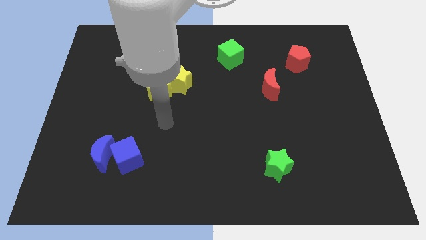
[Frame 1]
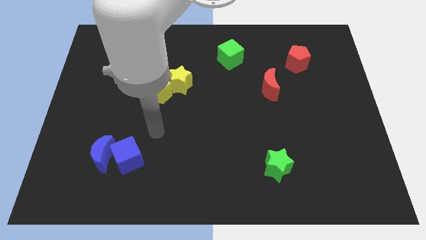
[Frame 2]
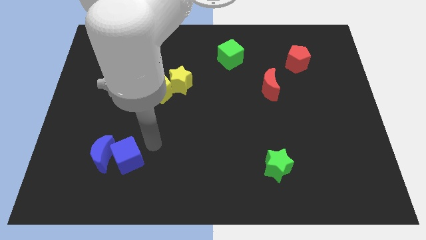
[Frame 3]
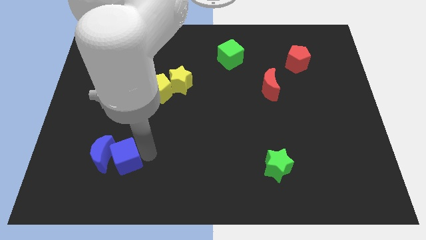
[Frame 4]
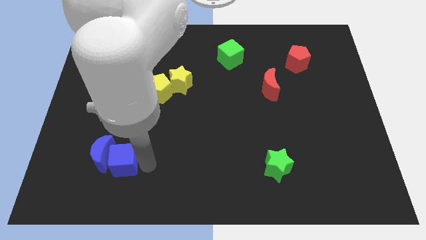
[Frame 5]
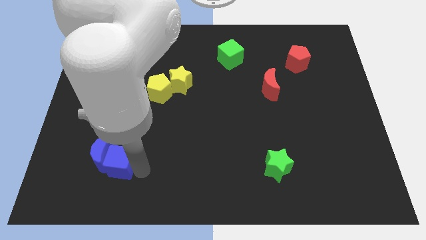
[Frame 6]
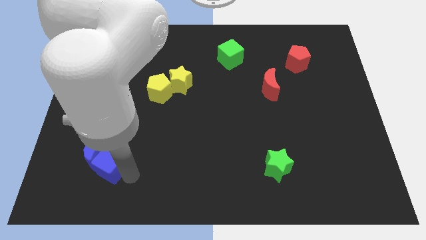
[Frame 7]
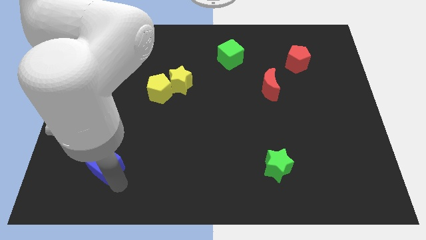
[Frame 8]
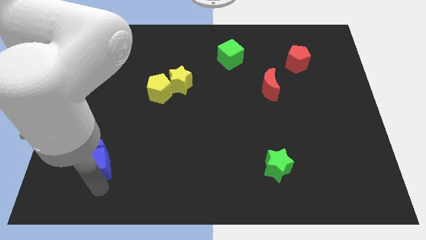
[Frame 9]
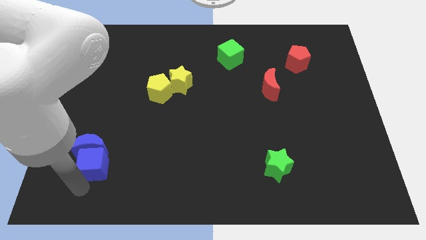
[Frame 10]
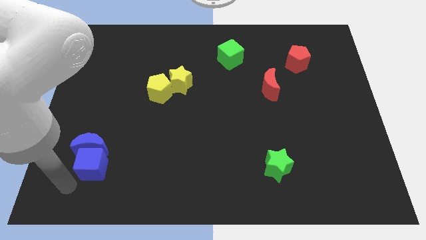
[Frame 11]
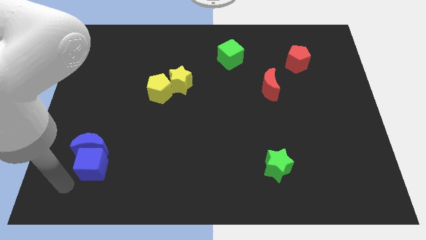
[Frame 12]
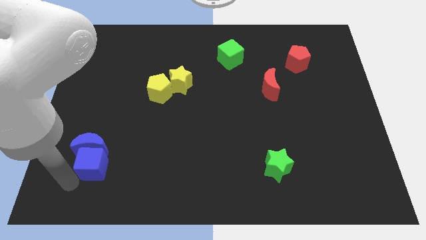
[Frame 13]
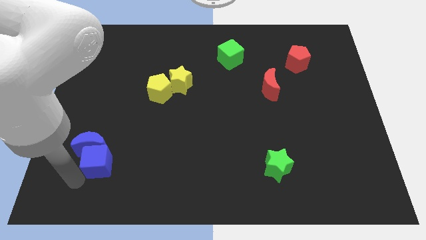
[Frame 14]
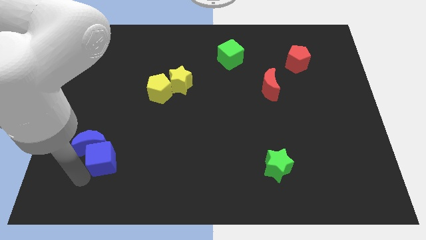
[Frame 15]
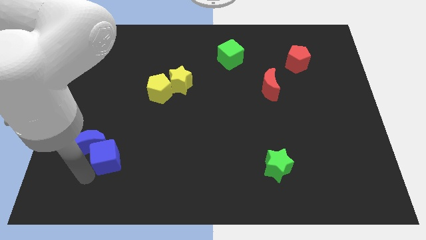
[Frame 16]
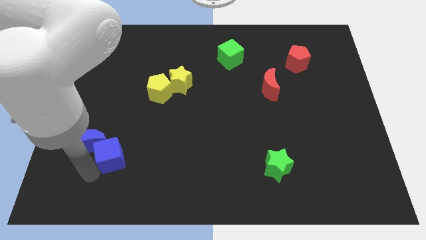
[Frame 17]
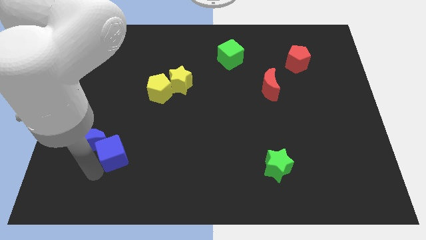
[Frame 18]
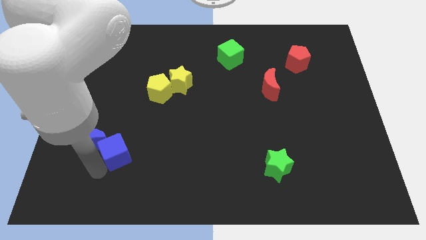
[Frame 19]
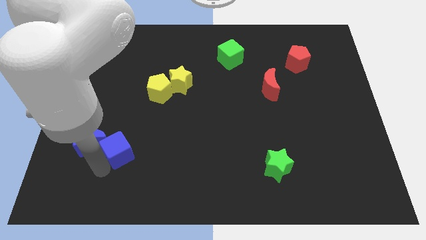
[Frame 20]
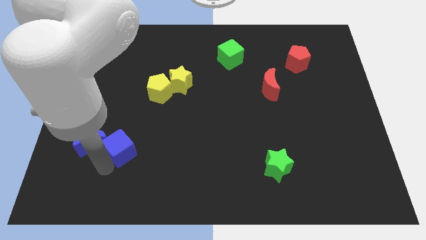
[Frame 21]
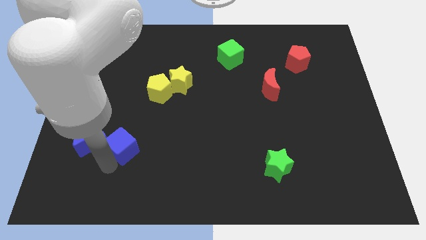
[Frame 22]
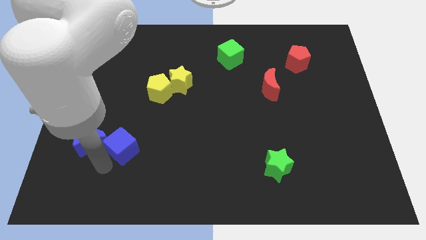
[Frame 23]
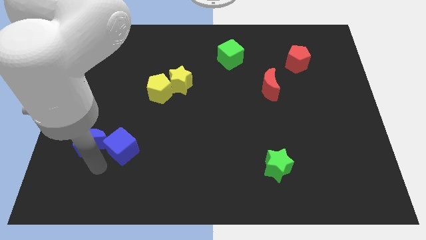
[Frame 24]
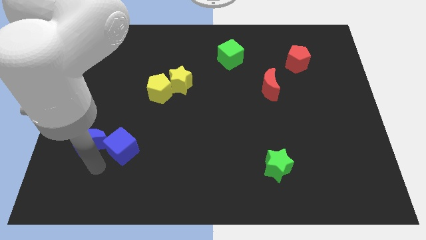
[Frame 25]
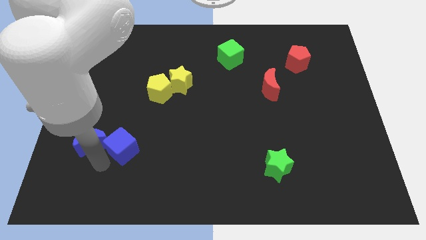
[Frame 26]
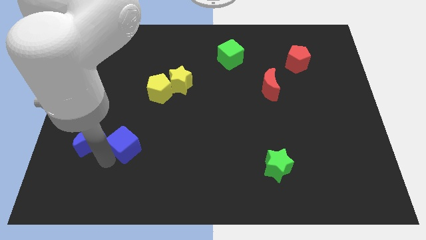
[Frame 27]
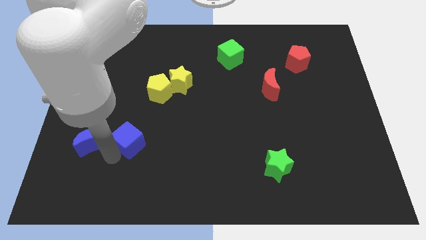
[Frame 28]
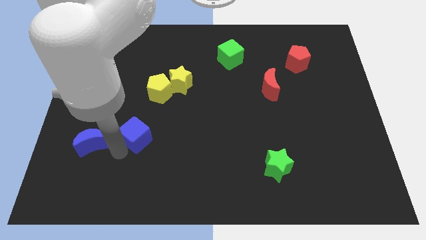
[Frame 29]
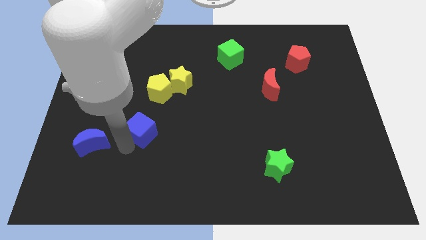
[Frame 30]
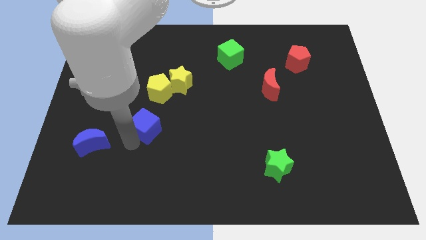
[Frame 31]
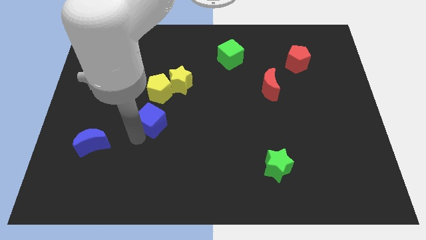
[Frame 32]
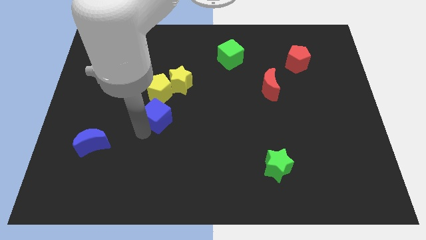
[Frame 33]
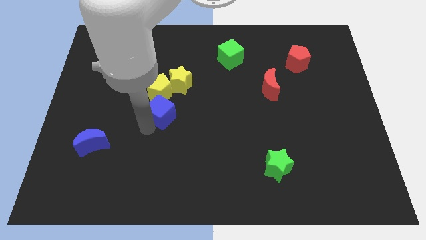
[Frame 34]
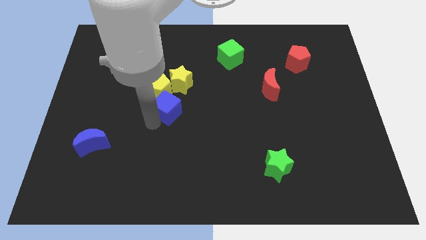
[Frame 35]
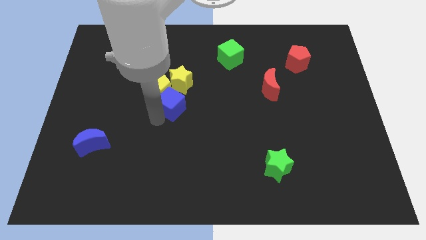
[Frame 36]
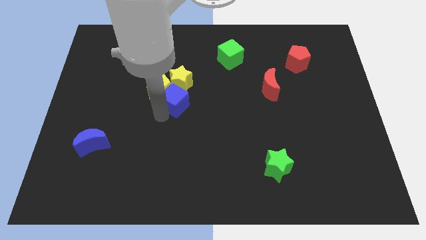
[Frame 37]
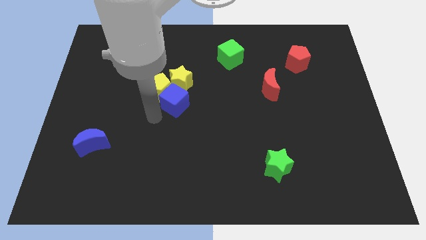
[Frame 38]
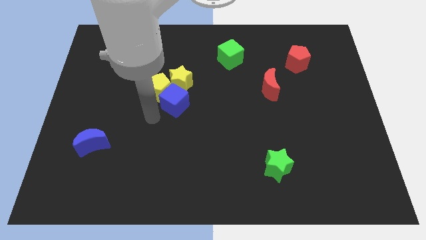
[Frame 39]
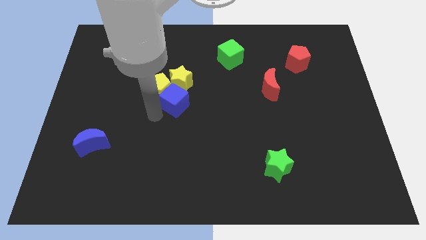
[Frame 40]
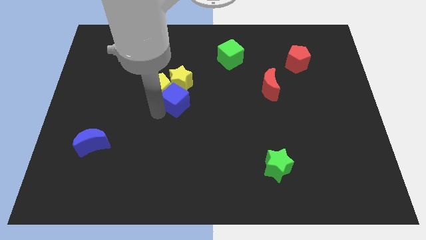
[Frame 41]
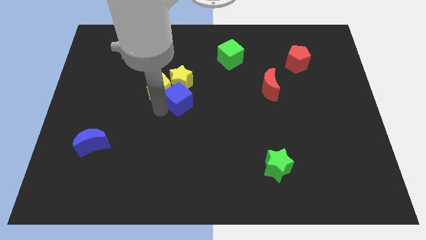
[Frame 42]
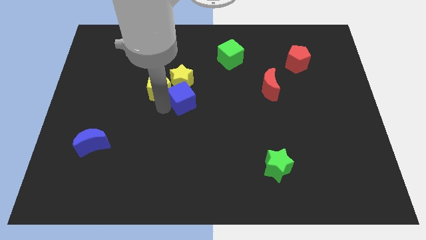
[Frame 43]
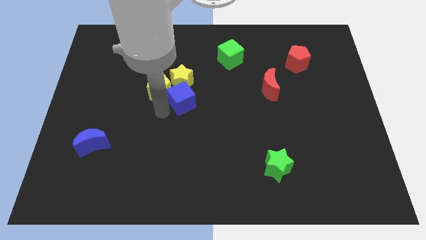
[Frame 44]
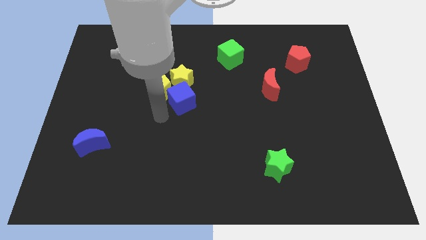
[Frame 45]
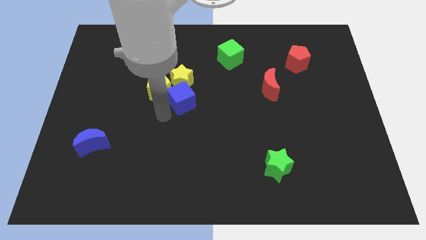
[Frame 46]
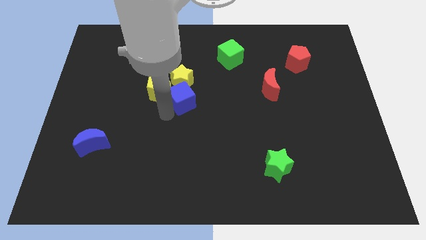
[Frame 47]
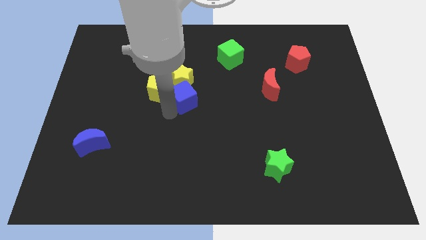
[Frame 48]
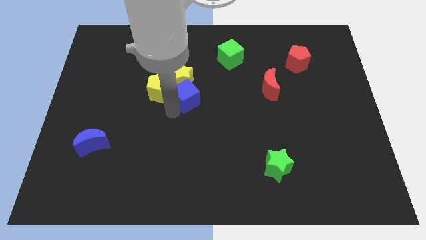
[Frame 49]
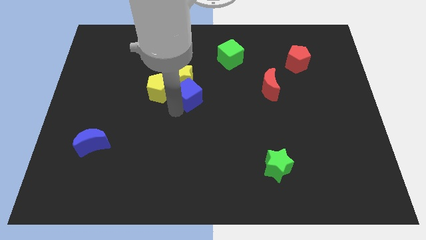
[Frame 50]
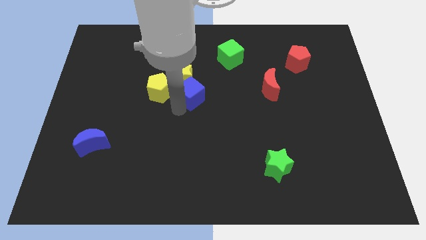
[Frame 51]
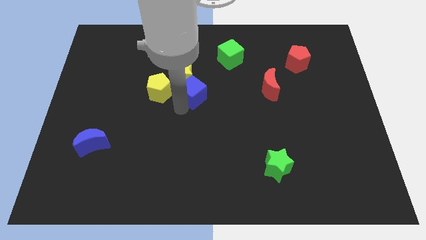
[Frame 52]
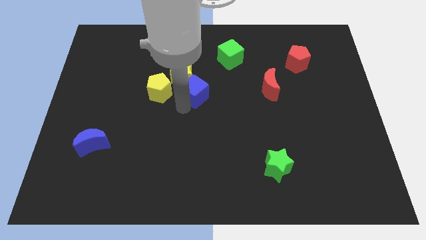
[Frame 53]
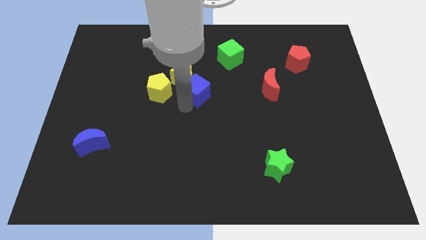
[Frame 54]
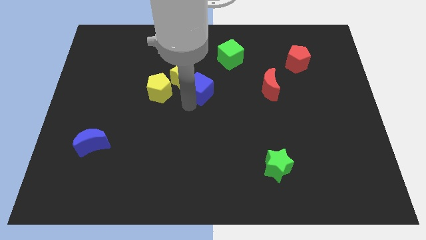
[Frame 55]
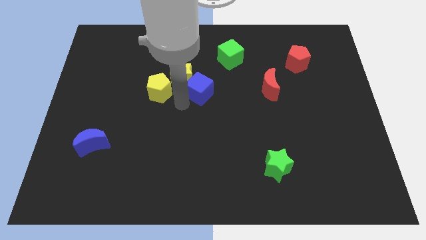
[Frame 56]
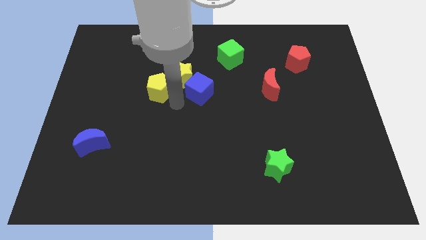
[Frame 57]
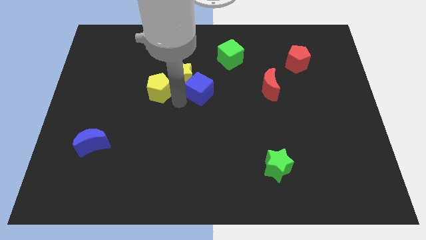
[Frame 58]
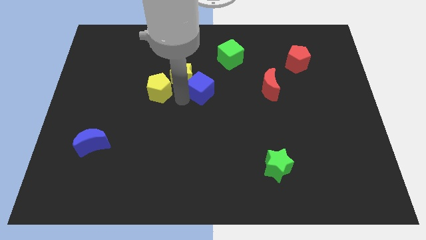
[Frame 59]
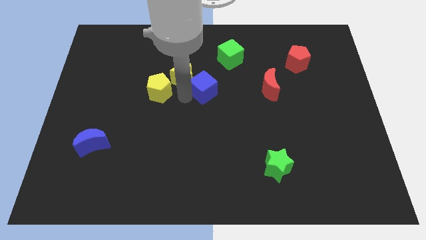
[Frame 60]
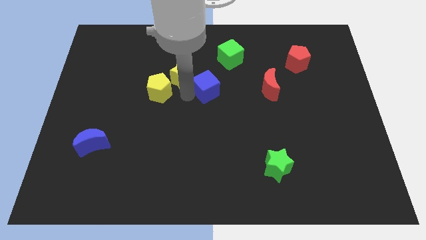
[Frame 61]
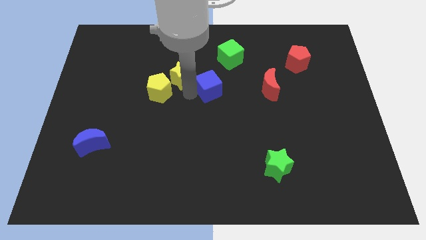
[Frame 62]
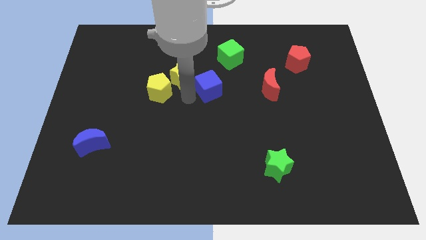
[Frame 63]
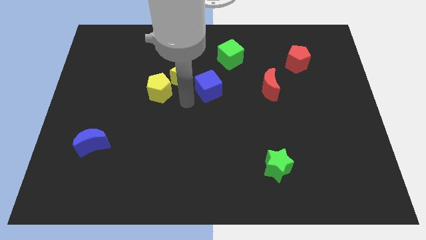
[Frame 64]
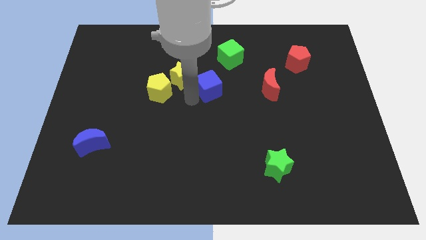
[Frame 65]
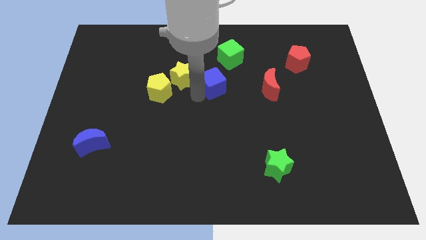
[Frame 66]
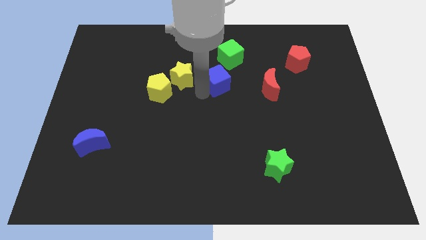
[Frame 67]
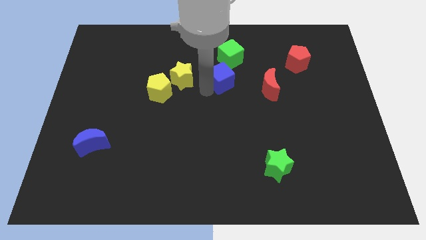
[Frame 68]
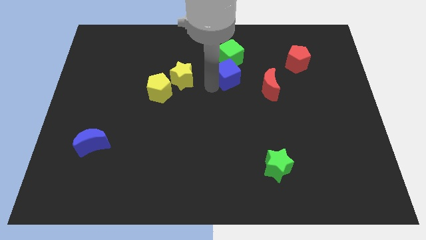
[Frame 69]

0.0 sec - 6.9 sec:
slide the blue cube to the top left of the red moon
